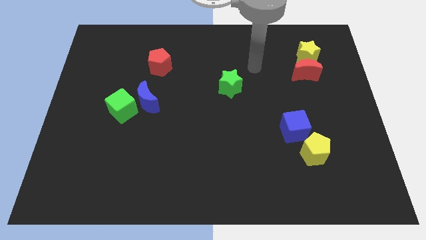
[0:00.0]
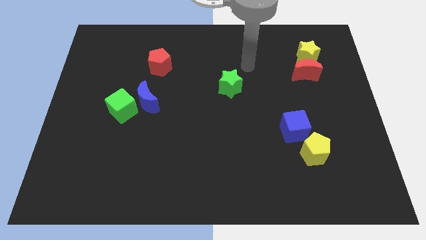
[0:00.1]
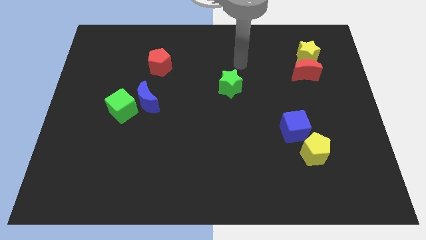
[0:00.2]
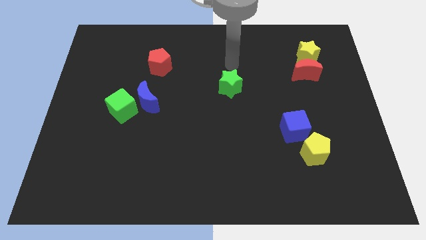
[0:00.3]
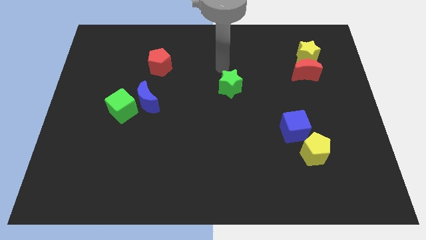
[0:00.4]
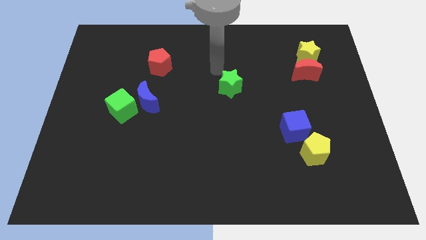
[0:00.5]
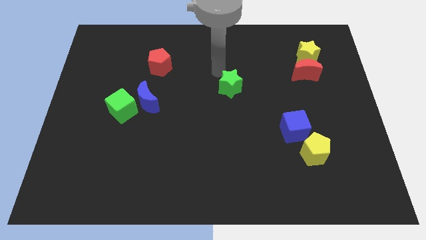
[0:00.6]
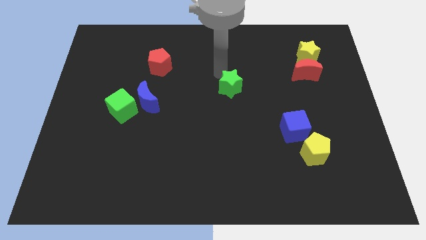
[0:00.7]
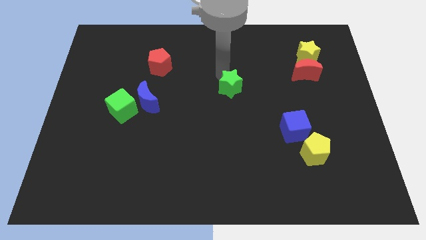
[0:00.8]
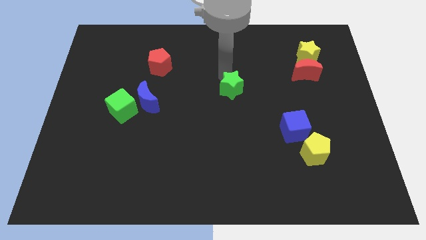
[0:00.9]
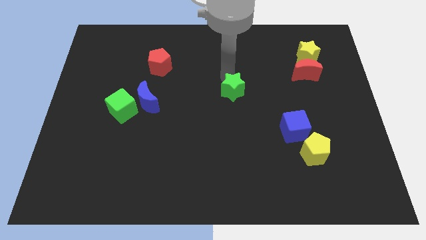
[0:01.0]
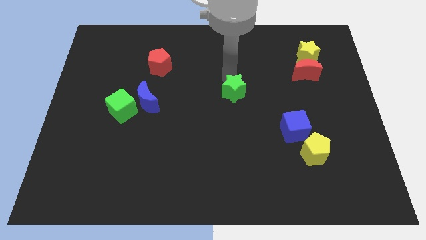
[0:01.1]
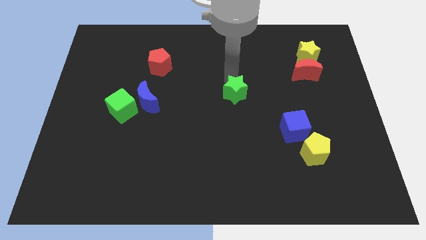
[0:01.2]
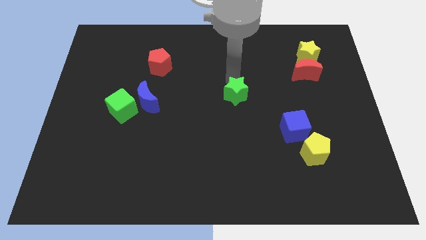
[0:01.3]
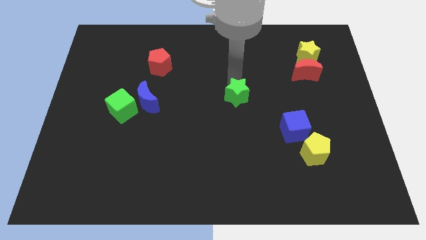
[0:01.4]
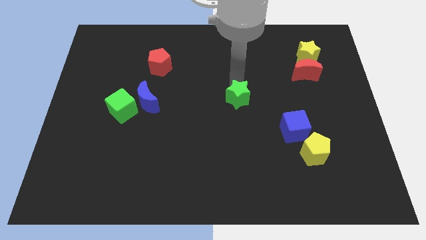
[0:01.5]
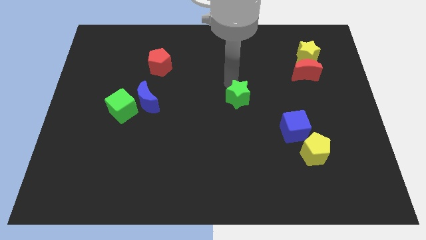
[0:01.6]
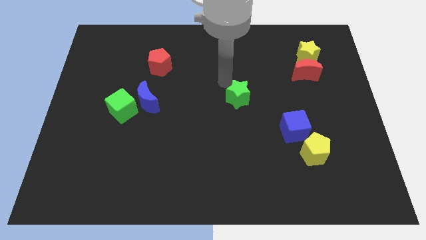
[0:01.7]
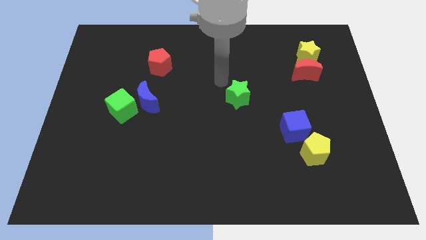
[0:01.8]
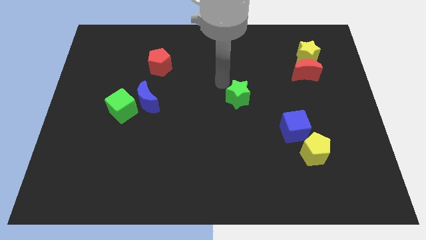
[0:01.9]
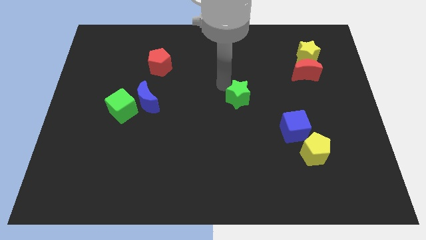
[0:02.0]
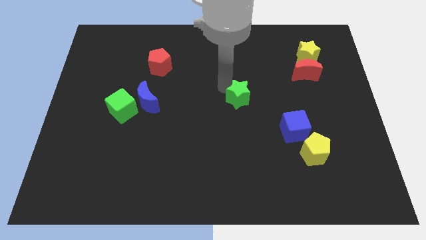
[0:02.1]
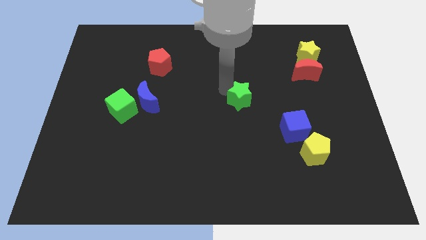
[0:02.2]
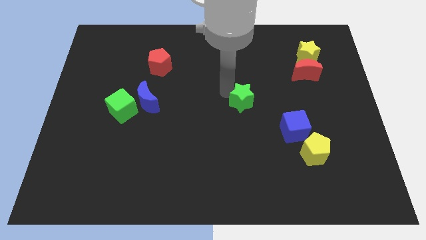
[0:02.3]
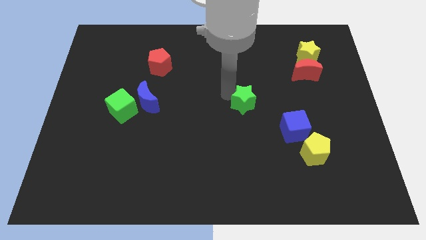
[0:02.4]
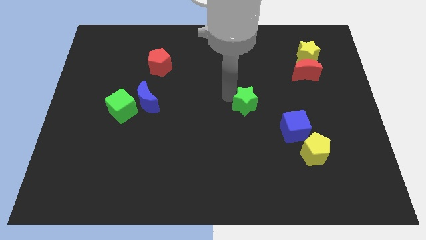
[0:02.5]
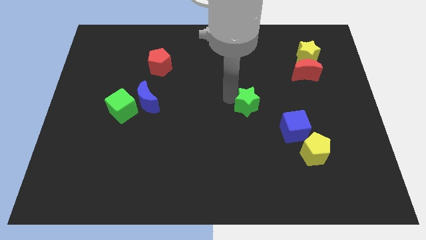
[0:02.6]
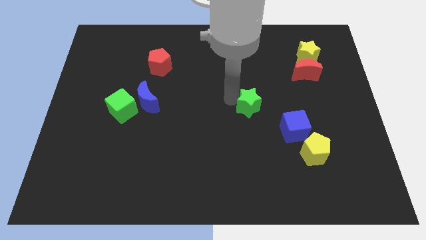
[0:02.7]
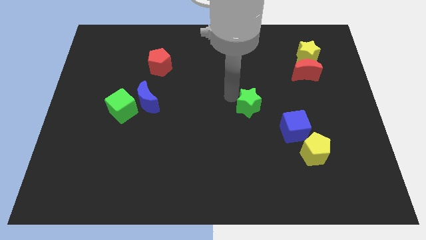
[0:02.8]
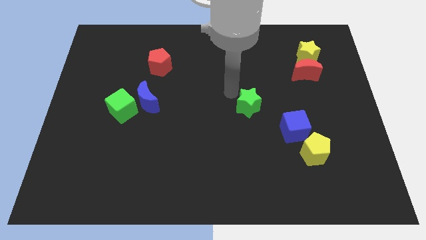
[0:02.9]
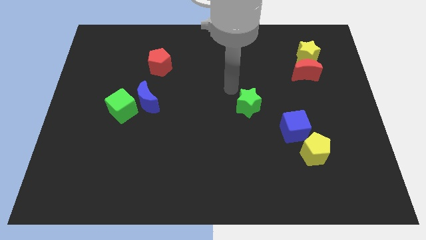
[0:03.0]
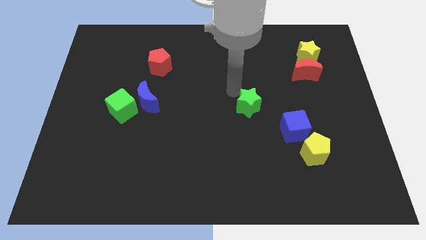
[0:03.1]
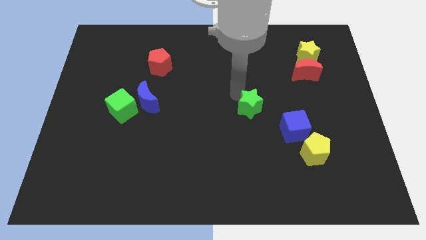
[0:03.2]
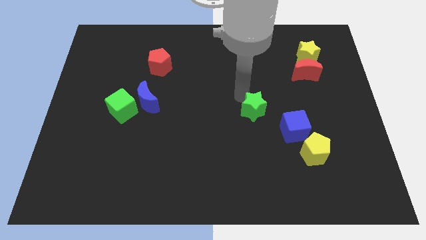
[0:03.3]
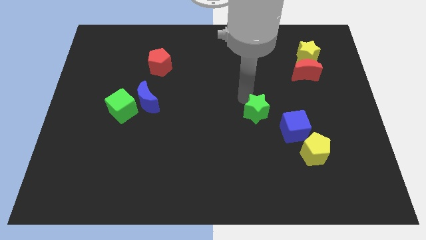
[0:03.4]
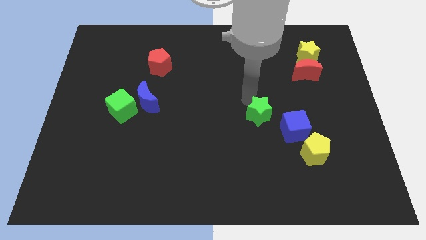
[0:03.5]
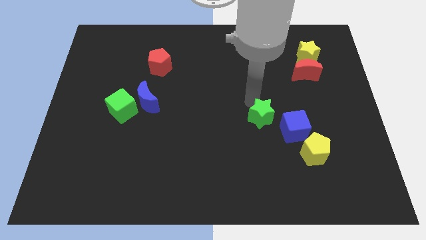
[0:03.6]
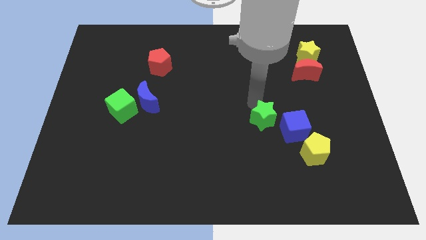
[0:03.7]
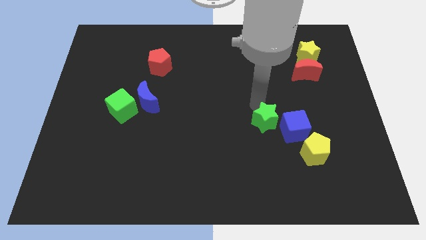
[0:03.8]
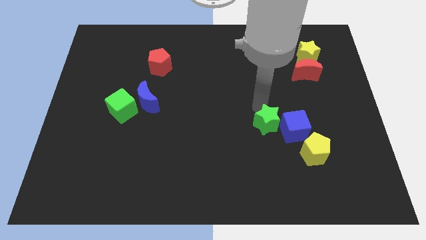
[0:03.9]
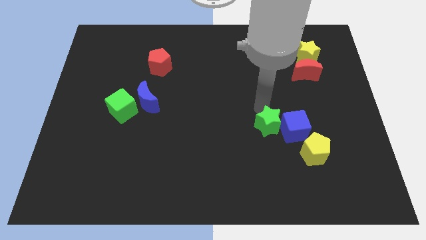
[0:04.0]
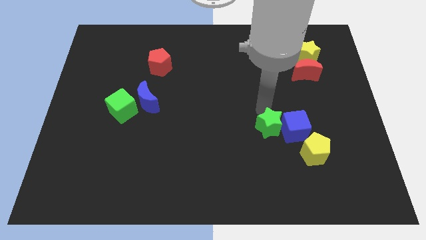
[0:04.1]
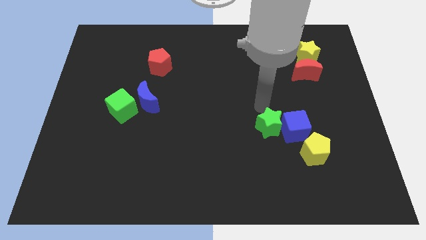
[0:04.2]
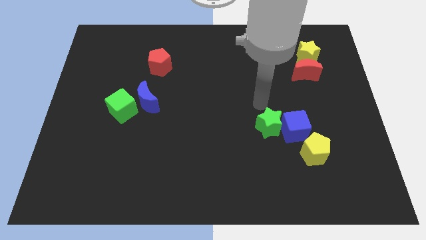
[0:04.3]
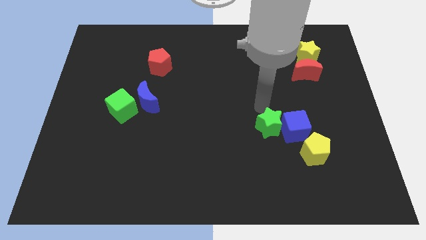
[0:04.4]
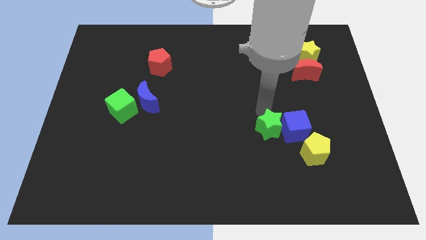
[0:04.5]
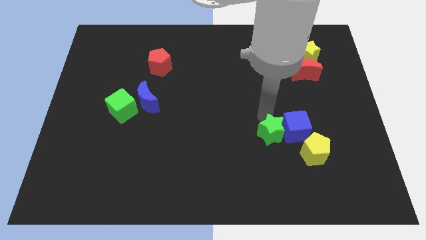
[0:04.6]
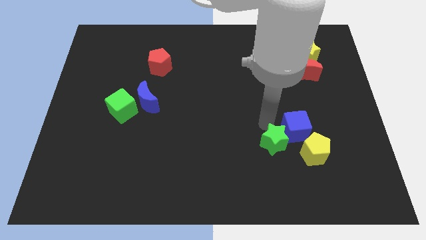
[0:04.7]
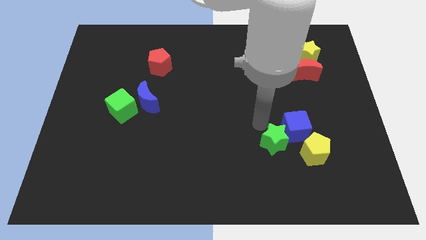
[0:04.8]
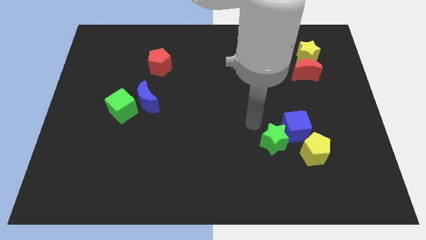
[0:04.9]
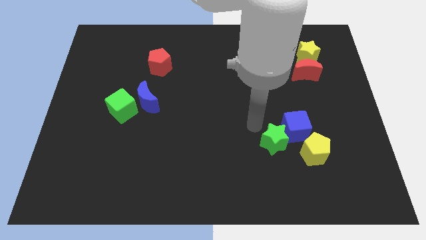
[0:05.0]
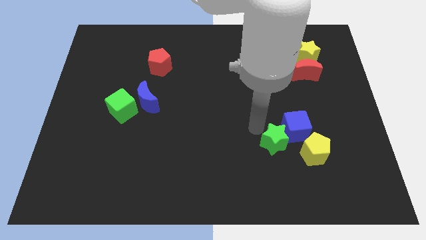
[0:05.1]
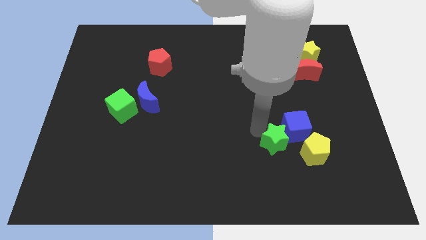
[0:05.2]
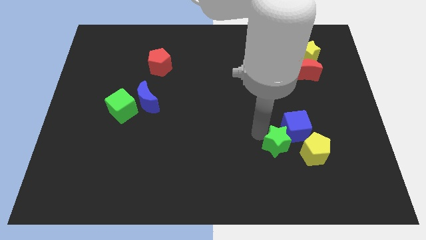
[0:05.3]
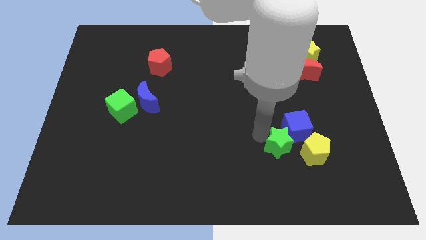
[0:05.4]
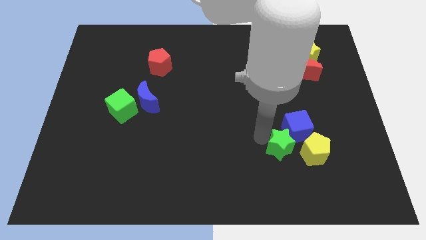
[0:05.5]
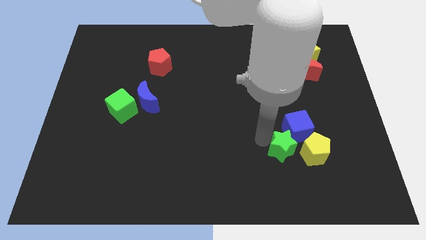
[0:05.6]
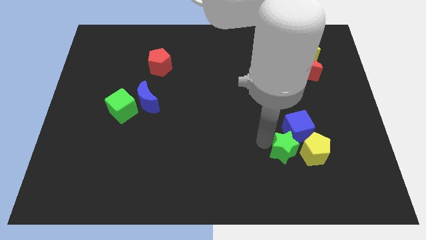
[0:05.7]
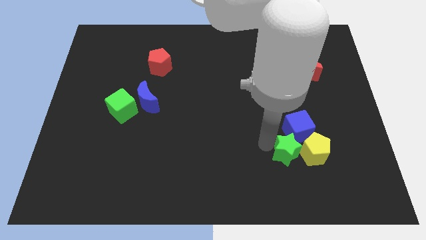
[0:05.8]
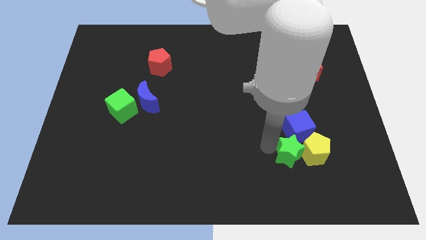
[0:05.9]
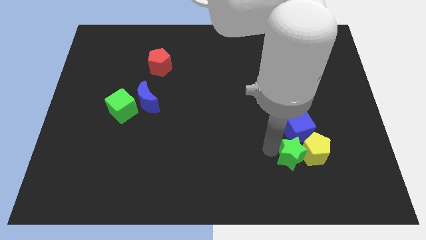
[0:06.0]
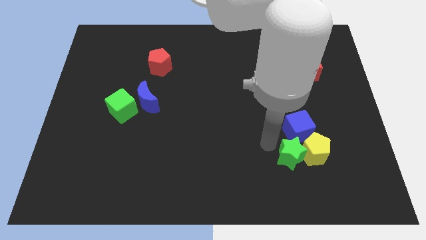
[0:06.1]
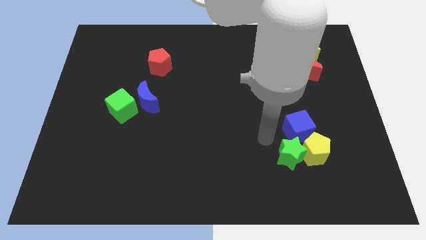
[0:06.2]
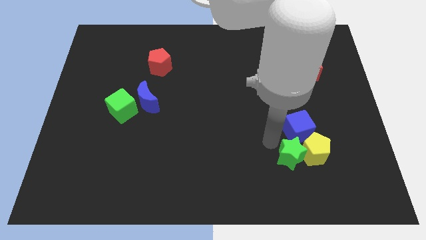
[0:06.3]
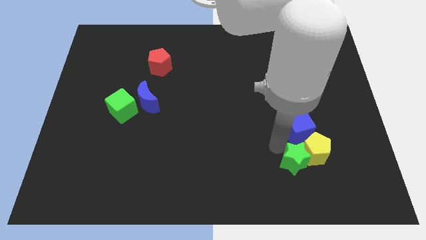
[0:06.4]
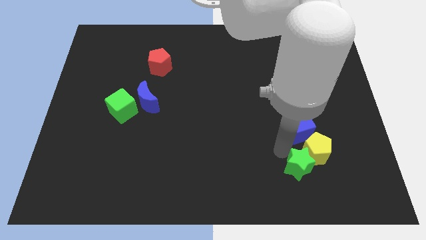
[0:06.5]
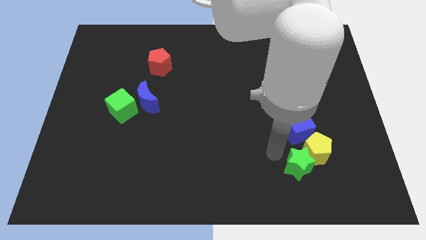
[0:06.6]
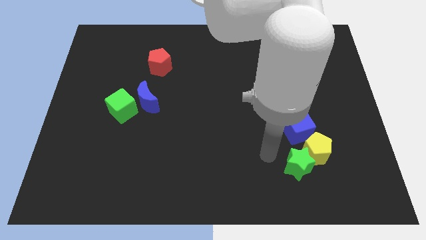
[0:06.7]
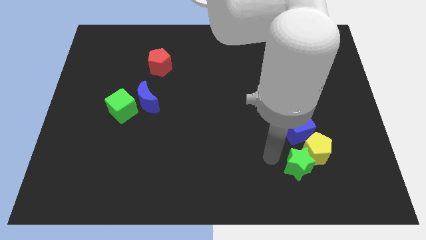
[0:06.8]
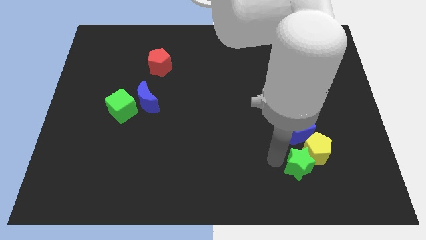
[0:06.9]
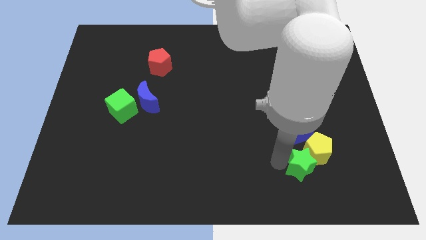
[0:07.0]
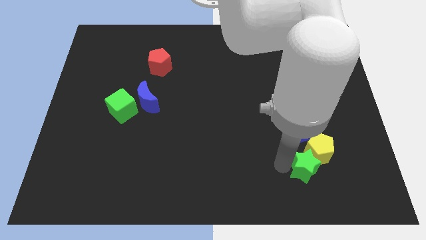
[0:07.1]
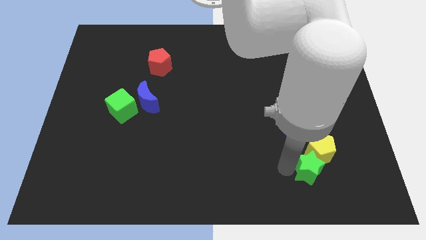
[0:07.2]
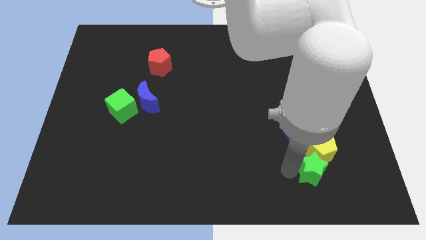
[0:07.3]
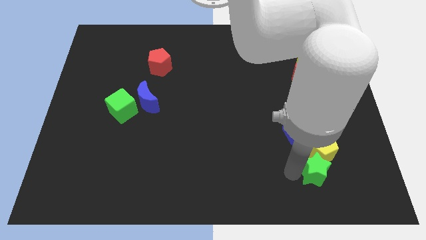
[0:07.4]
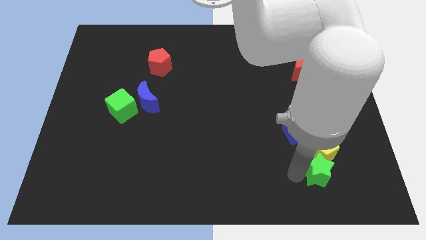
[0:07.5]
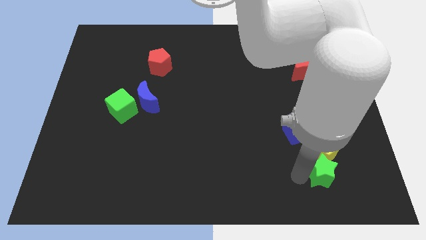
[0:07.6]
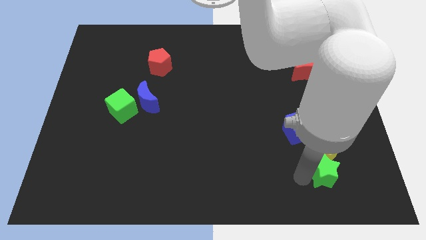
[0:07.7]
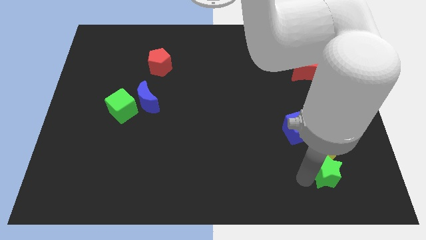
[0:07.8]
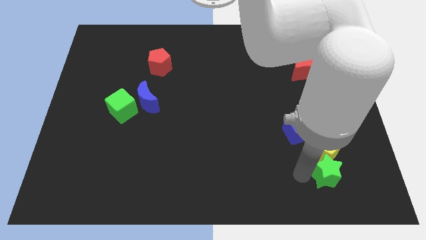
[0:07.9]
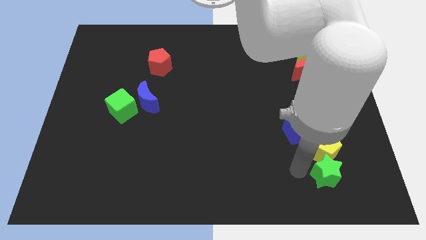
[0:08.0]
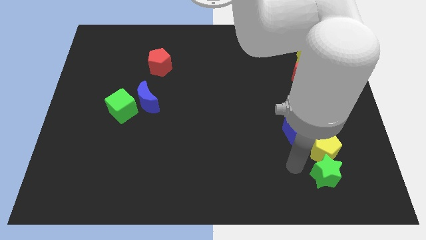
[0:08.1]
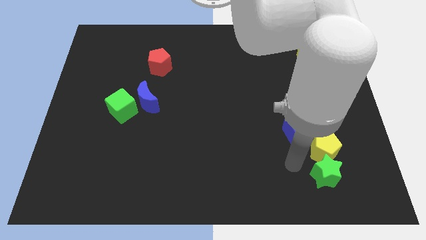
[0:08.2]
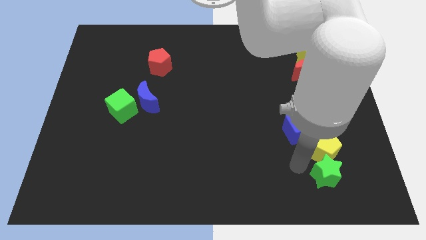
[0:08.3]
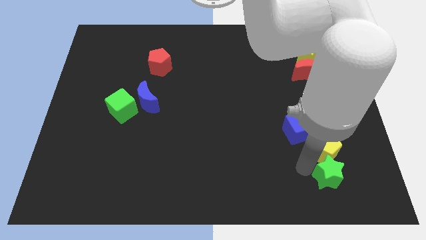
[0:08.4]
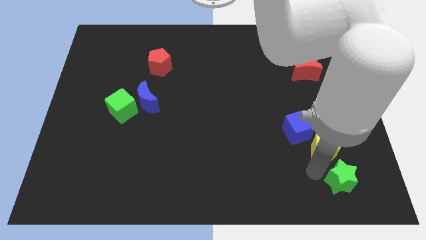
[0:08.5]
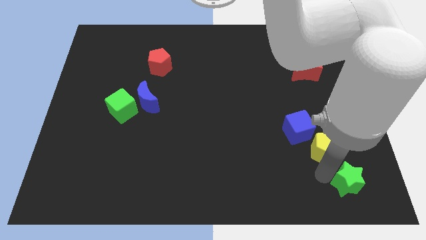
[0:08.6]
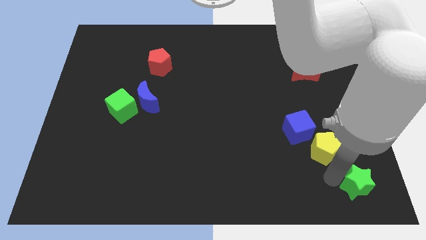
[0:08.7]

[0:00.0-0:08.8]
move the green star to the bottom right corner
